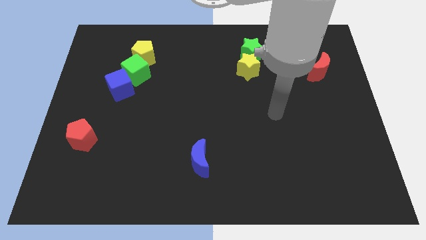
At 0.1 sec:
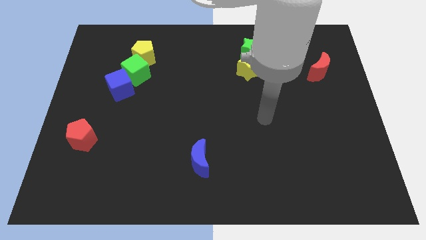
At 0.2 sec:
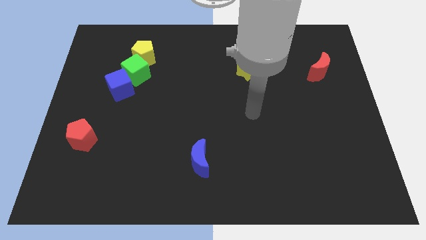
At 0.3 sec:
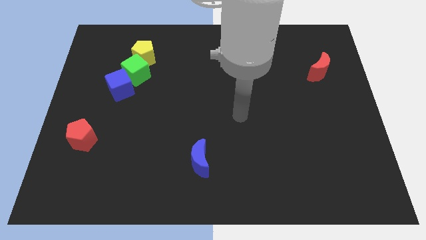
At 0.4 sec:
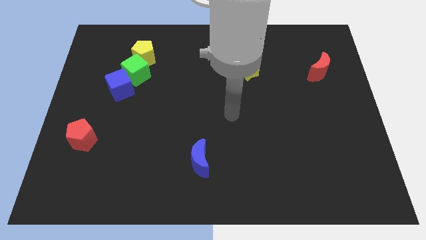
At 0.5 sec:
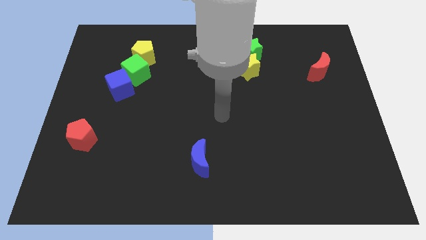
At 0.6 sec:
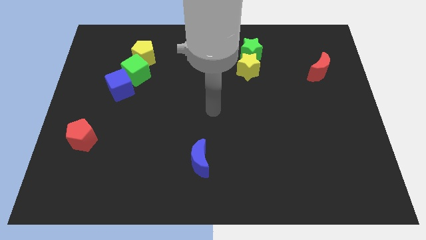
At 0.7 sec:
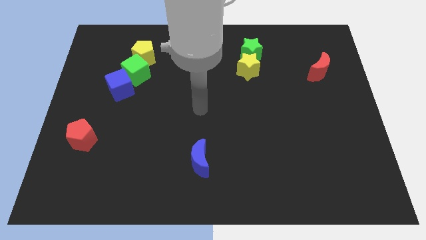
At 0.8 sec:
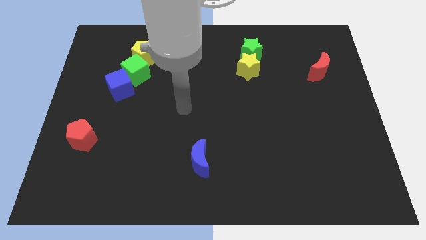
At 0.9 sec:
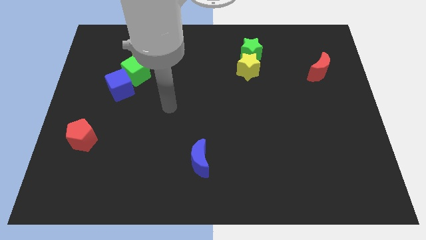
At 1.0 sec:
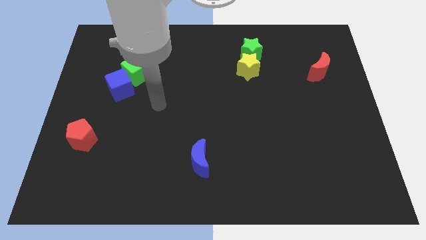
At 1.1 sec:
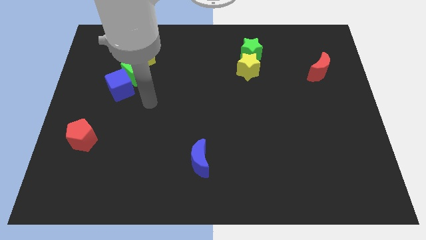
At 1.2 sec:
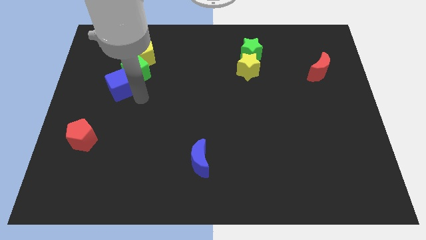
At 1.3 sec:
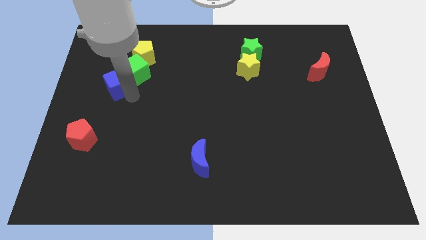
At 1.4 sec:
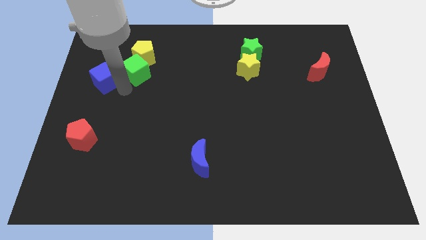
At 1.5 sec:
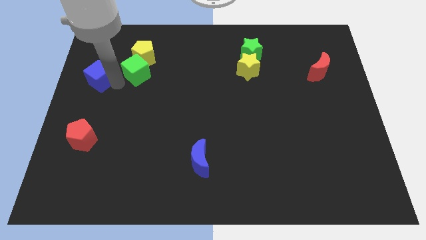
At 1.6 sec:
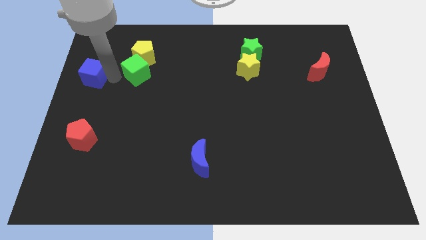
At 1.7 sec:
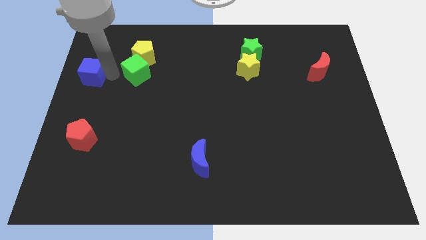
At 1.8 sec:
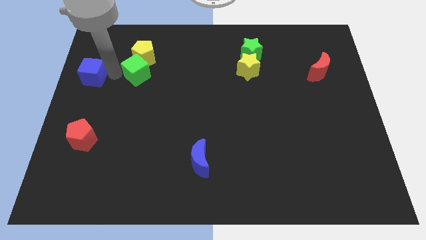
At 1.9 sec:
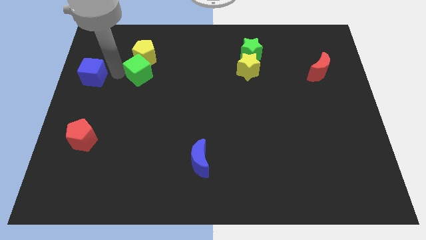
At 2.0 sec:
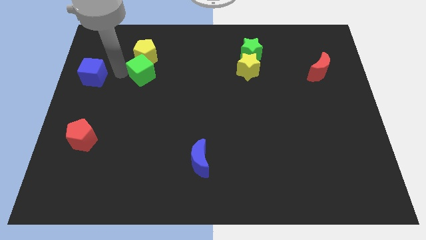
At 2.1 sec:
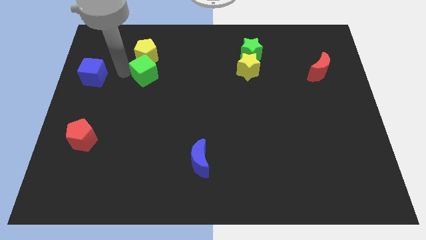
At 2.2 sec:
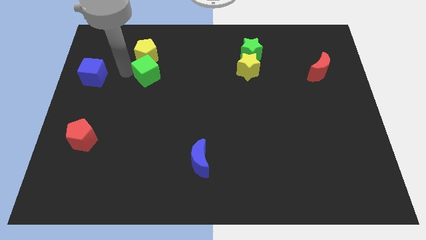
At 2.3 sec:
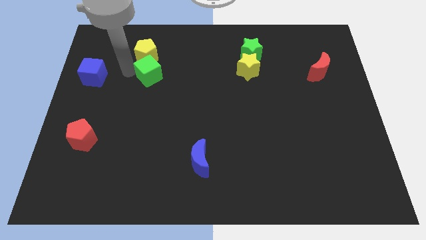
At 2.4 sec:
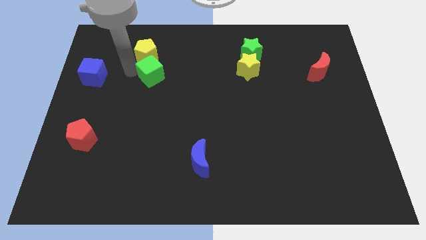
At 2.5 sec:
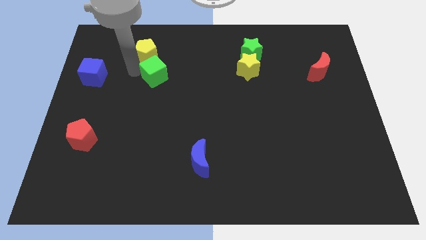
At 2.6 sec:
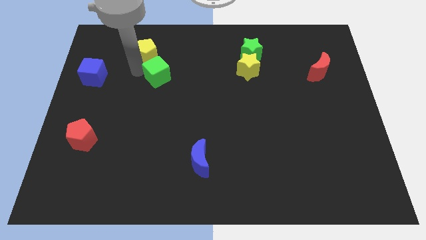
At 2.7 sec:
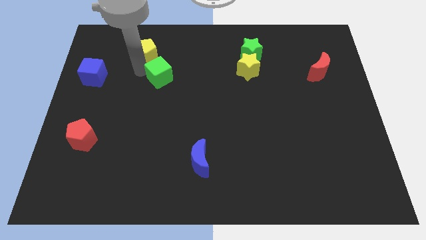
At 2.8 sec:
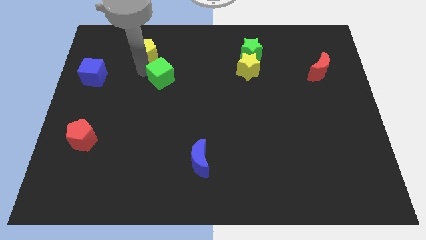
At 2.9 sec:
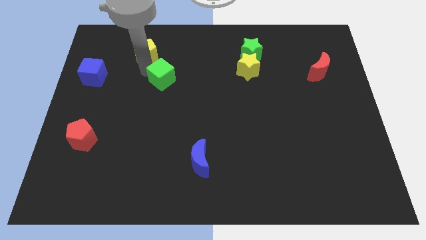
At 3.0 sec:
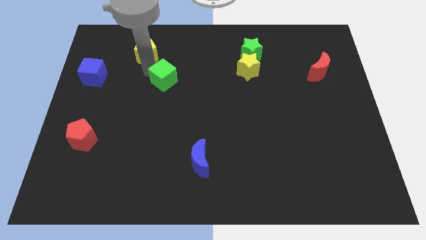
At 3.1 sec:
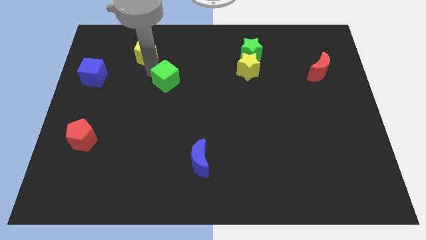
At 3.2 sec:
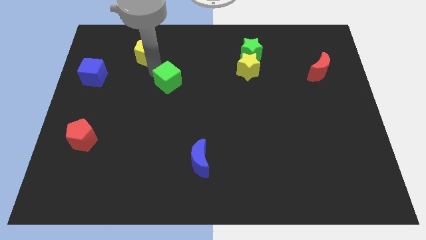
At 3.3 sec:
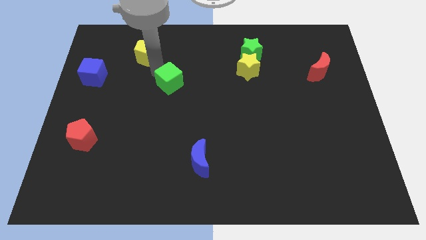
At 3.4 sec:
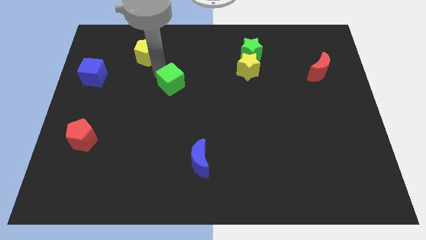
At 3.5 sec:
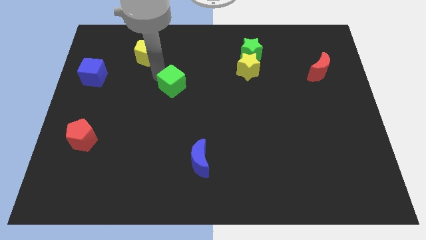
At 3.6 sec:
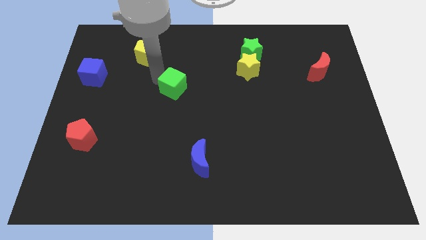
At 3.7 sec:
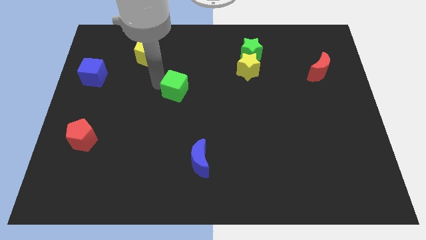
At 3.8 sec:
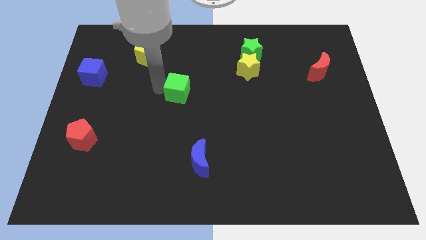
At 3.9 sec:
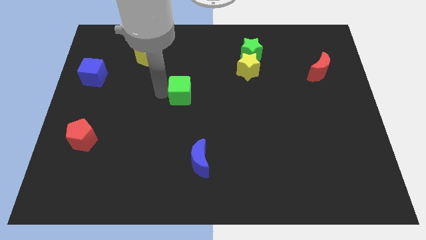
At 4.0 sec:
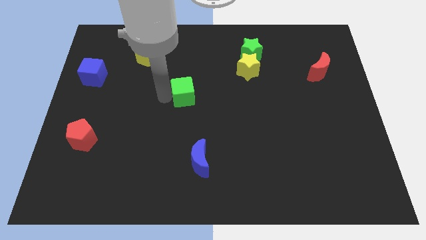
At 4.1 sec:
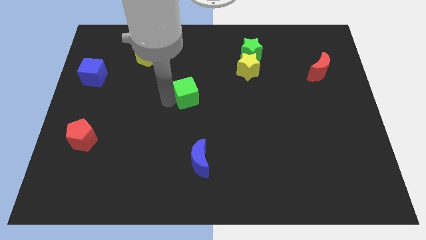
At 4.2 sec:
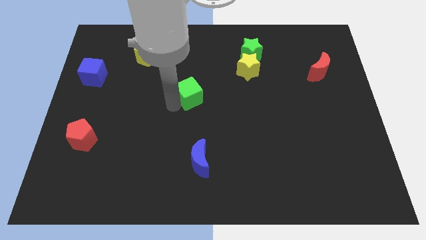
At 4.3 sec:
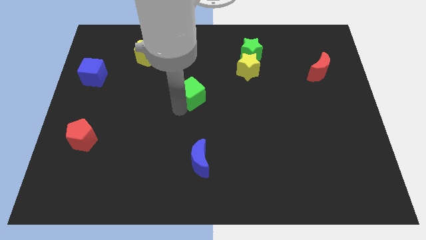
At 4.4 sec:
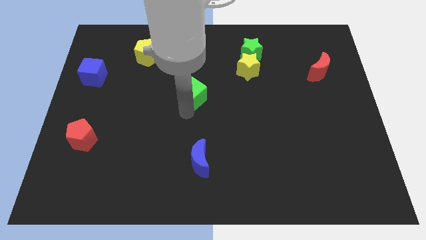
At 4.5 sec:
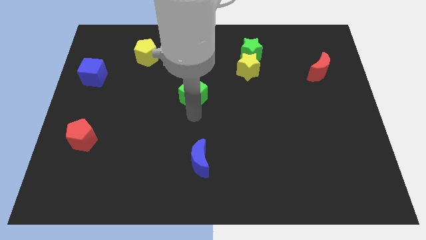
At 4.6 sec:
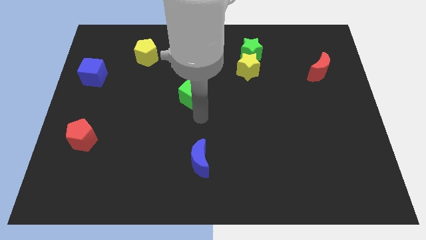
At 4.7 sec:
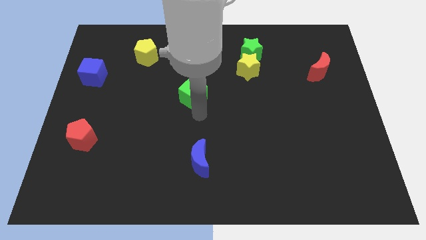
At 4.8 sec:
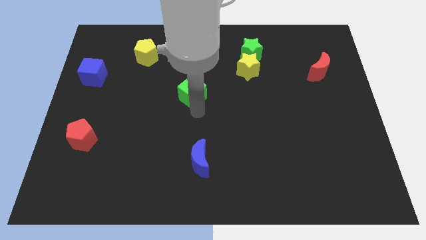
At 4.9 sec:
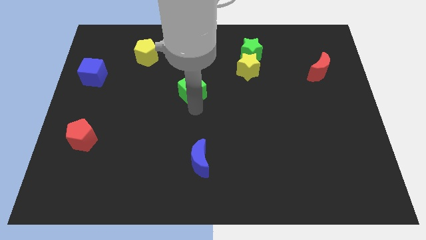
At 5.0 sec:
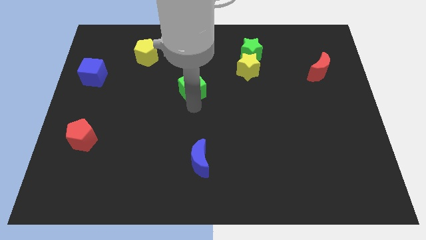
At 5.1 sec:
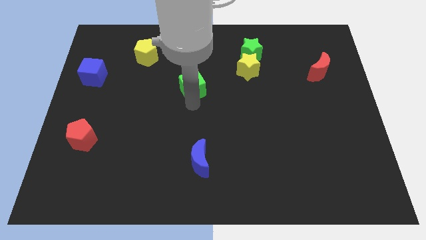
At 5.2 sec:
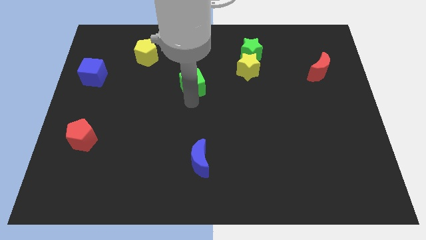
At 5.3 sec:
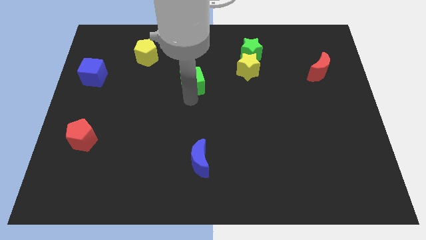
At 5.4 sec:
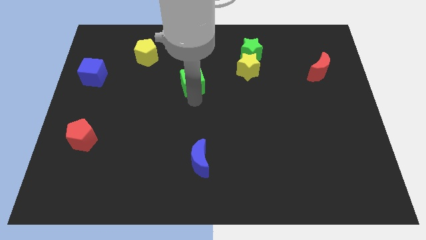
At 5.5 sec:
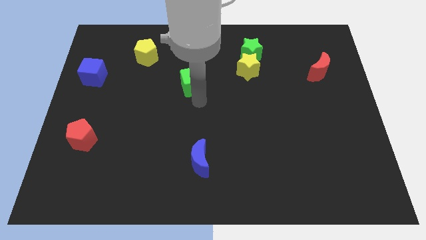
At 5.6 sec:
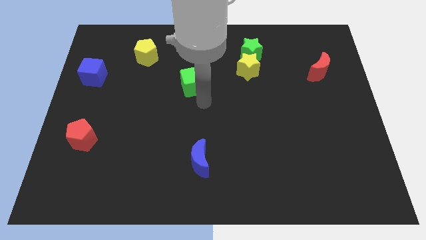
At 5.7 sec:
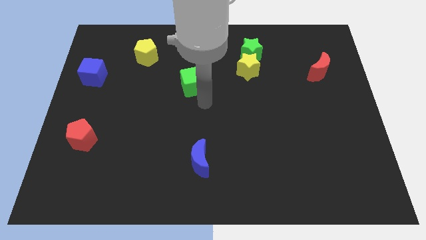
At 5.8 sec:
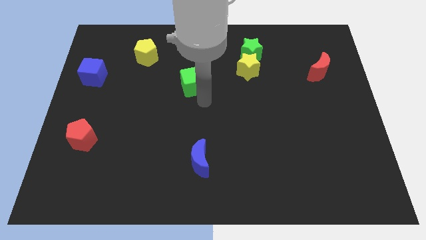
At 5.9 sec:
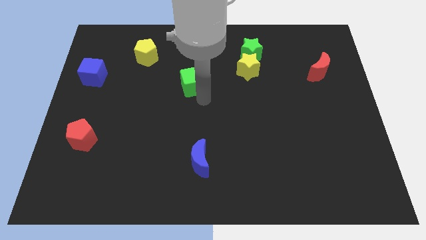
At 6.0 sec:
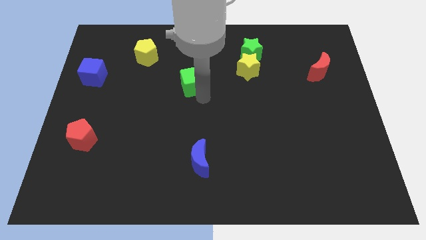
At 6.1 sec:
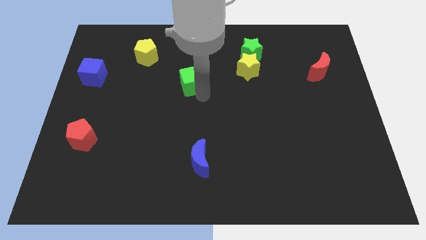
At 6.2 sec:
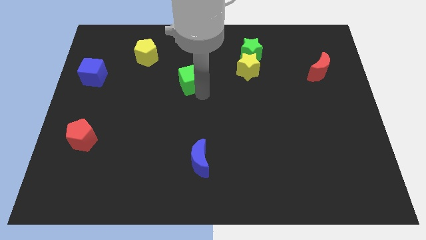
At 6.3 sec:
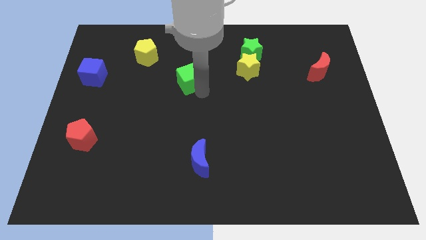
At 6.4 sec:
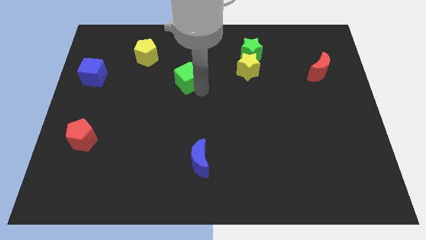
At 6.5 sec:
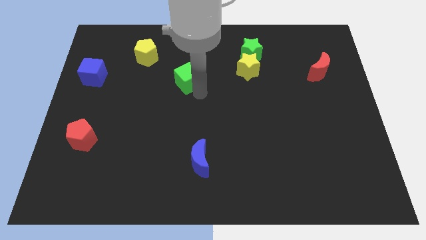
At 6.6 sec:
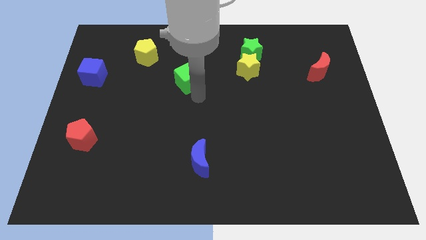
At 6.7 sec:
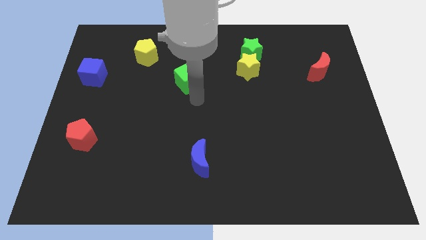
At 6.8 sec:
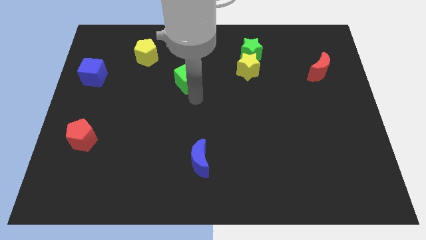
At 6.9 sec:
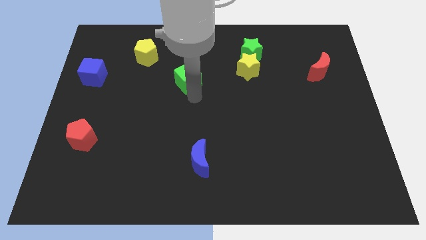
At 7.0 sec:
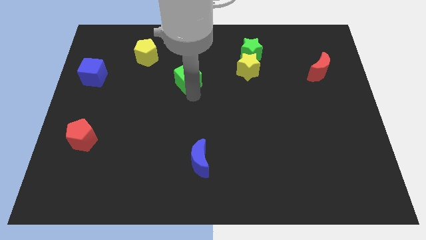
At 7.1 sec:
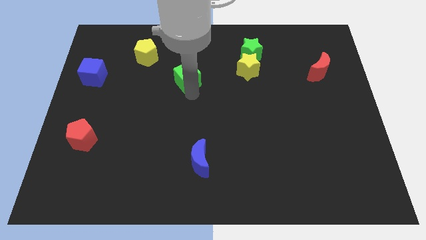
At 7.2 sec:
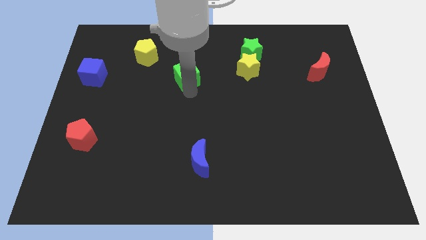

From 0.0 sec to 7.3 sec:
slide the green cube left of the yellow star

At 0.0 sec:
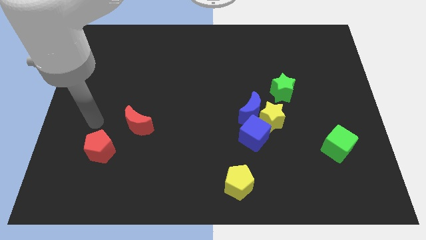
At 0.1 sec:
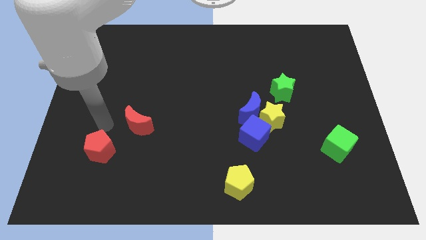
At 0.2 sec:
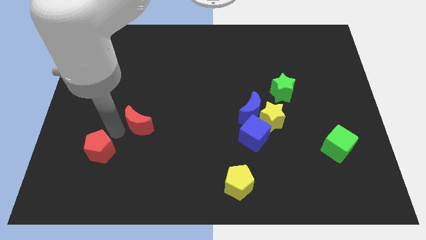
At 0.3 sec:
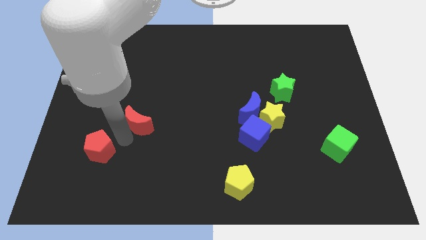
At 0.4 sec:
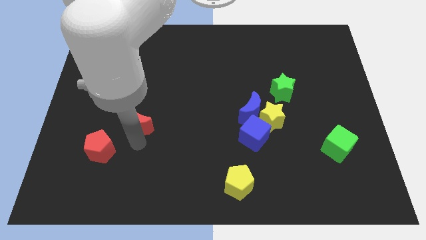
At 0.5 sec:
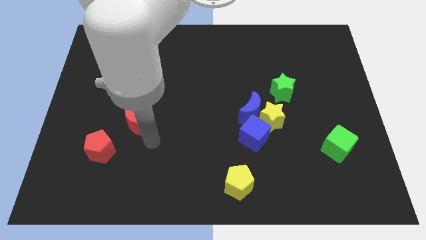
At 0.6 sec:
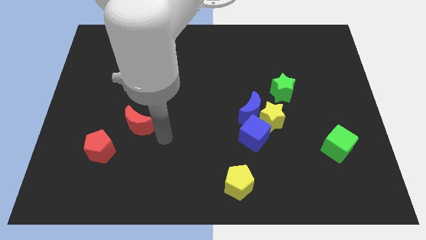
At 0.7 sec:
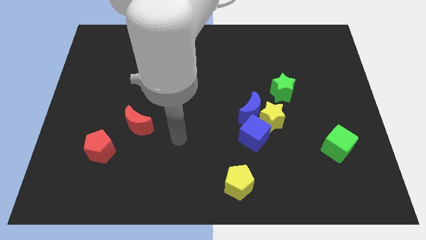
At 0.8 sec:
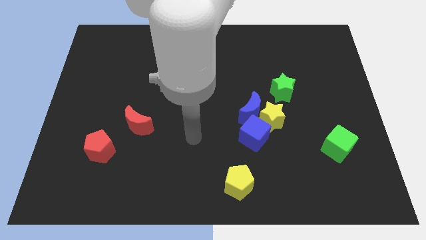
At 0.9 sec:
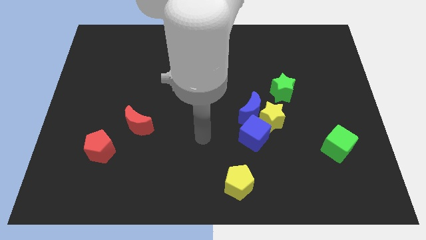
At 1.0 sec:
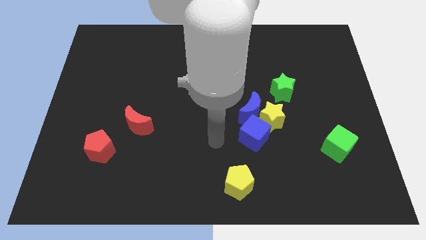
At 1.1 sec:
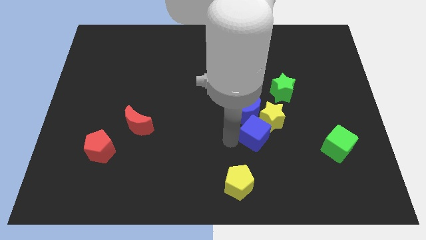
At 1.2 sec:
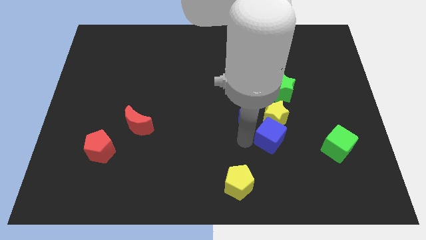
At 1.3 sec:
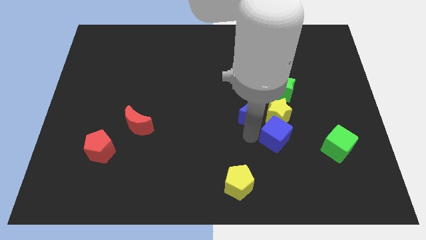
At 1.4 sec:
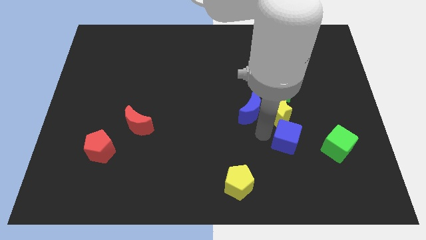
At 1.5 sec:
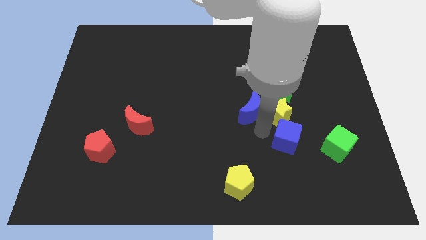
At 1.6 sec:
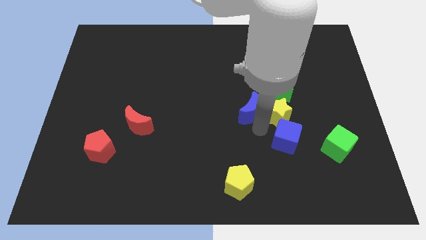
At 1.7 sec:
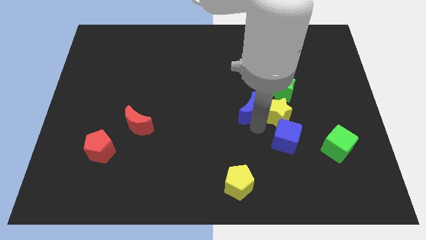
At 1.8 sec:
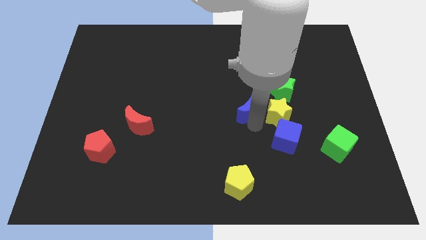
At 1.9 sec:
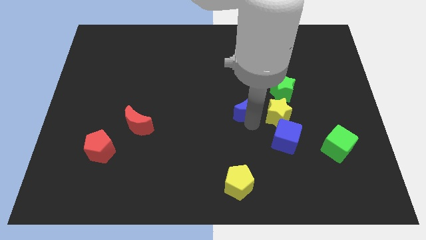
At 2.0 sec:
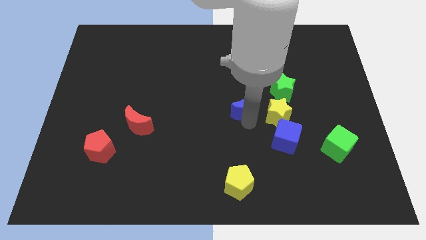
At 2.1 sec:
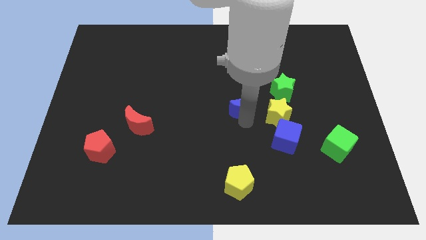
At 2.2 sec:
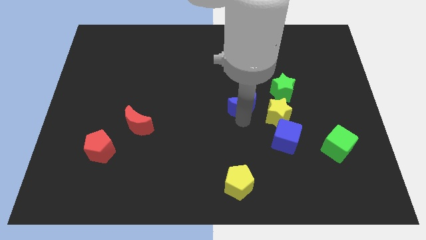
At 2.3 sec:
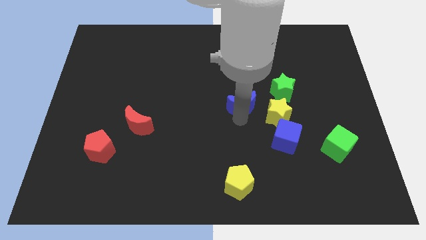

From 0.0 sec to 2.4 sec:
push the blue moon just left of the green star
